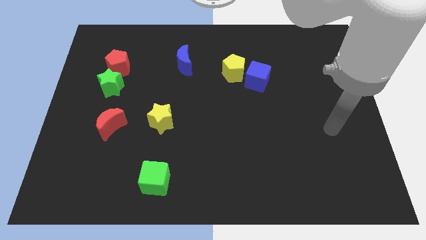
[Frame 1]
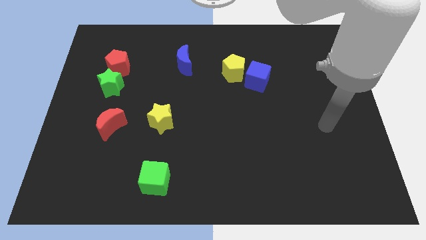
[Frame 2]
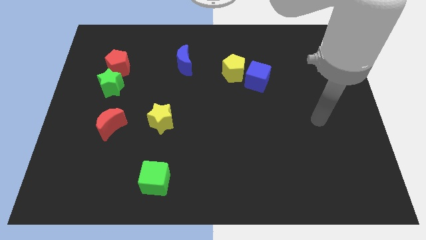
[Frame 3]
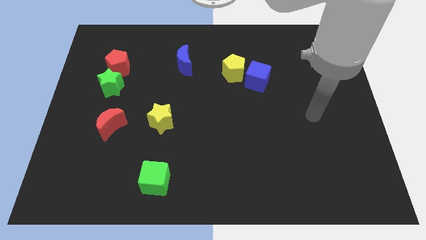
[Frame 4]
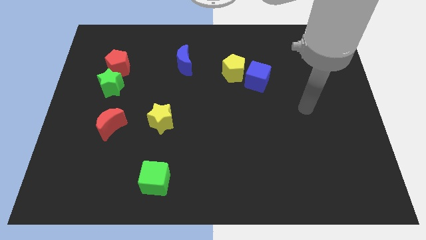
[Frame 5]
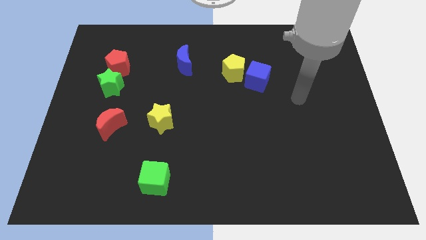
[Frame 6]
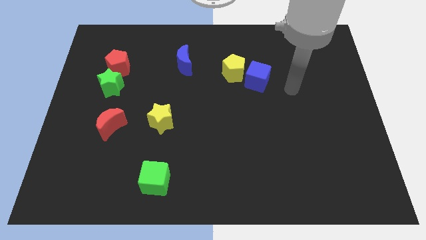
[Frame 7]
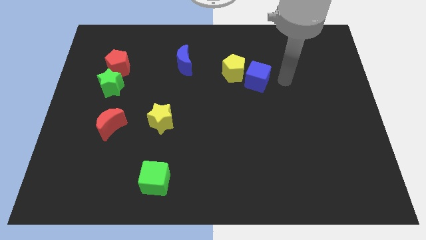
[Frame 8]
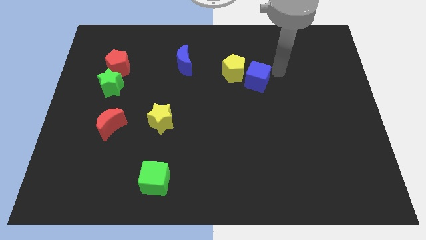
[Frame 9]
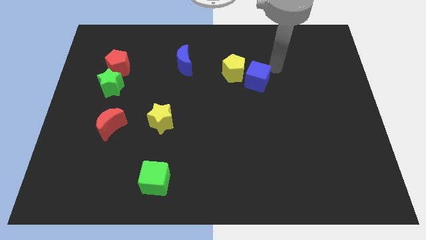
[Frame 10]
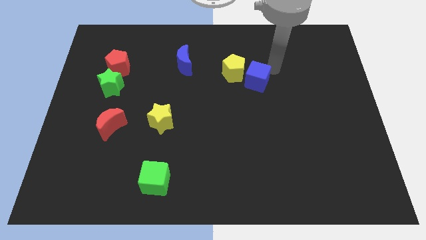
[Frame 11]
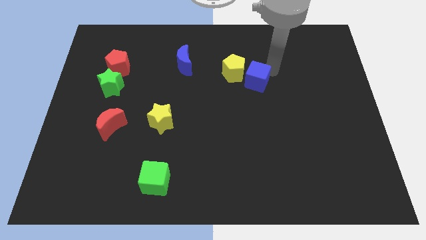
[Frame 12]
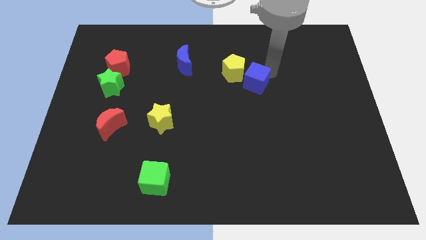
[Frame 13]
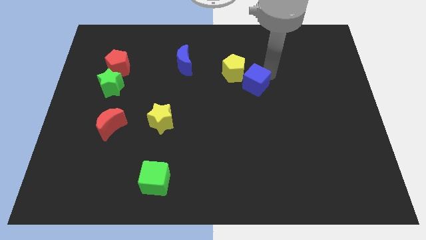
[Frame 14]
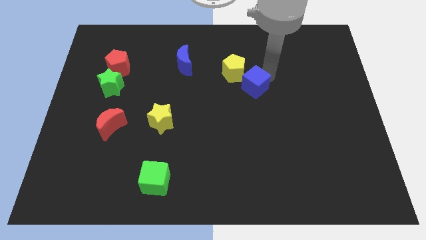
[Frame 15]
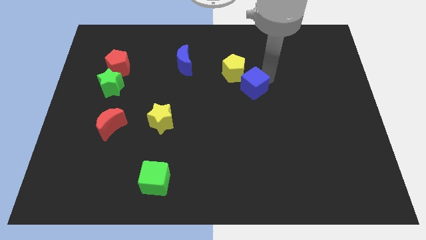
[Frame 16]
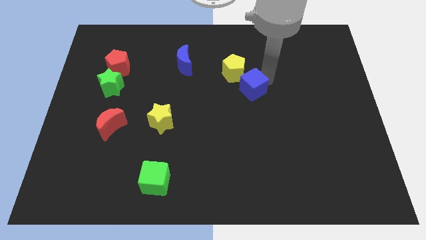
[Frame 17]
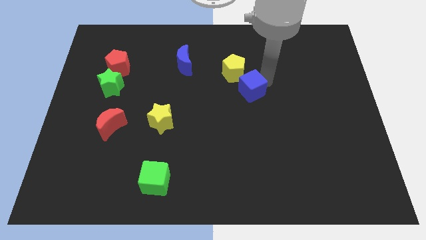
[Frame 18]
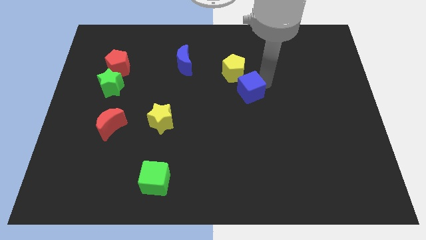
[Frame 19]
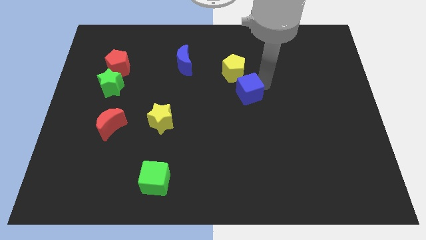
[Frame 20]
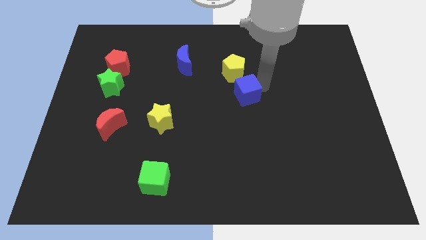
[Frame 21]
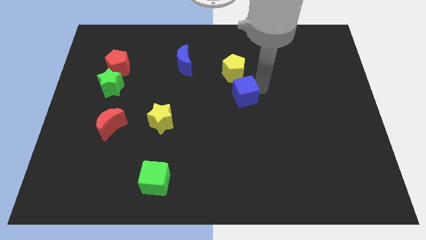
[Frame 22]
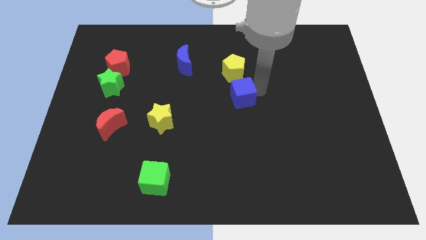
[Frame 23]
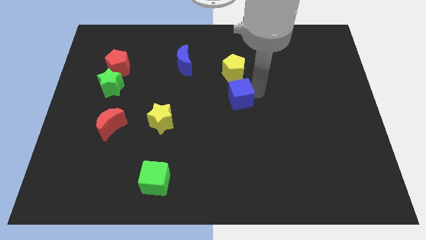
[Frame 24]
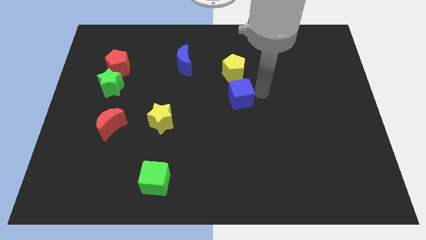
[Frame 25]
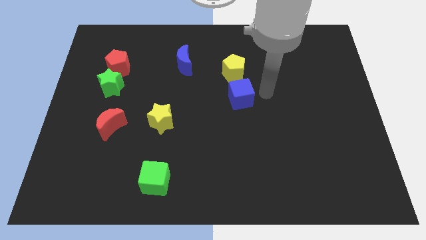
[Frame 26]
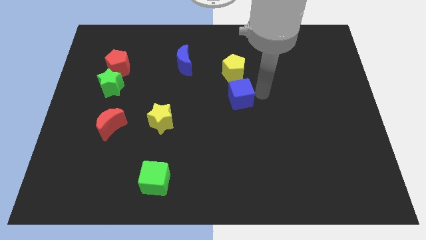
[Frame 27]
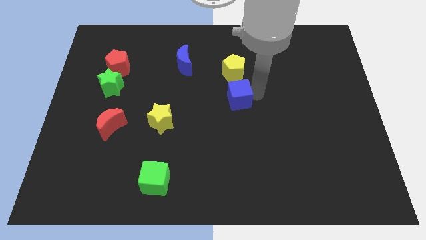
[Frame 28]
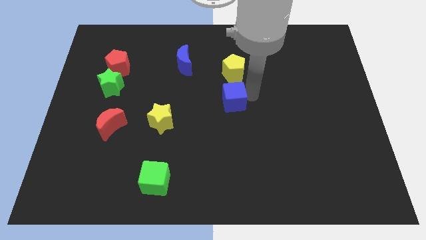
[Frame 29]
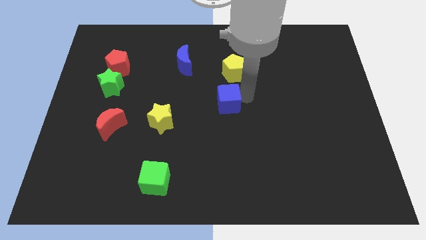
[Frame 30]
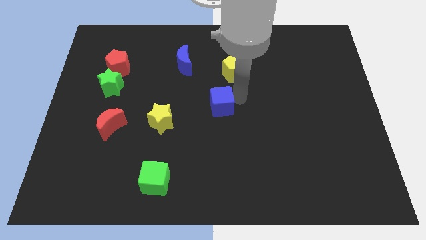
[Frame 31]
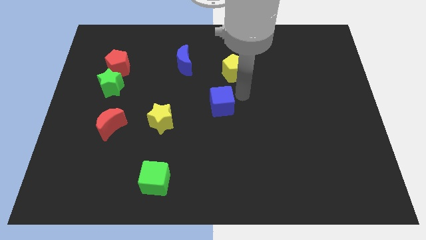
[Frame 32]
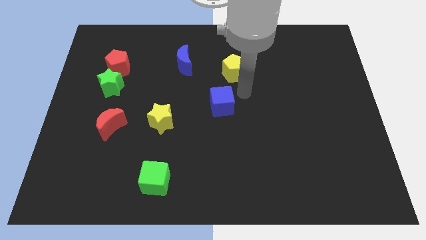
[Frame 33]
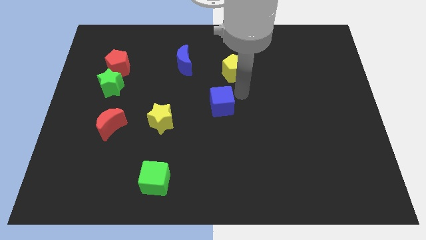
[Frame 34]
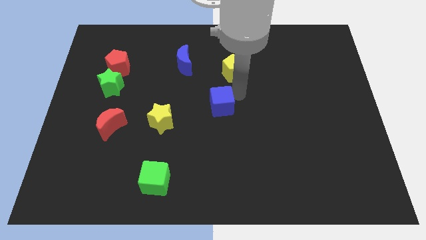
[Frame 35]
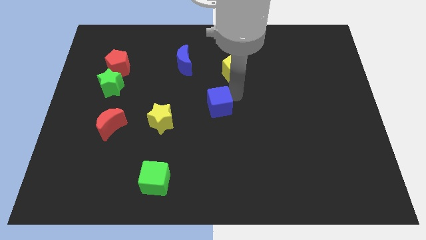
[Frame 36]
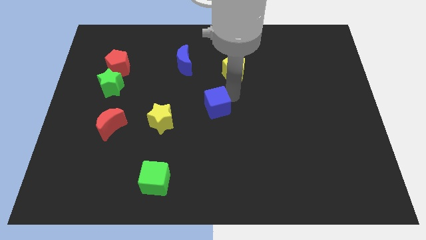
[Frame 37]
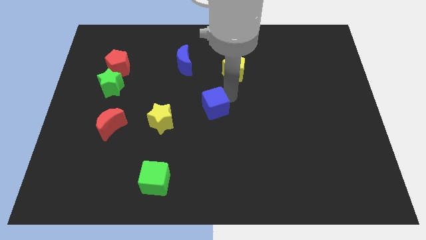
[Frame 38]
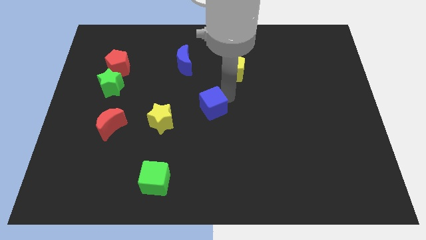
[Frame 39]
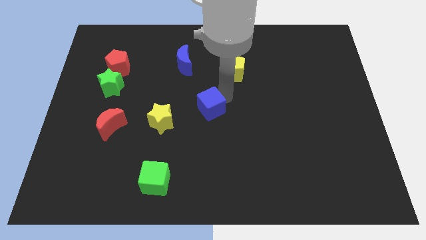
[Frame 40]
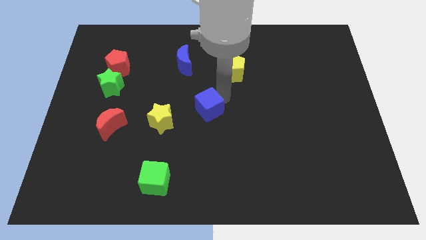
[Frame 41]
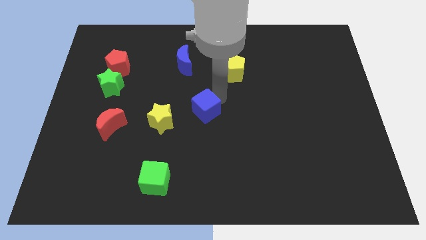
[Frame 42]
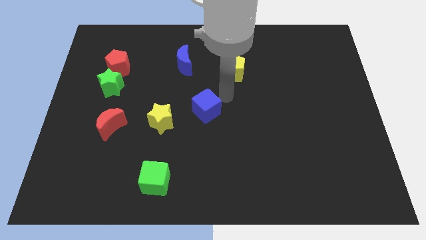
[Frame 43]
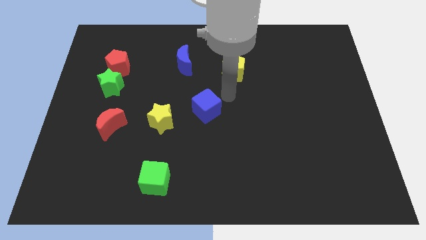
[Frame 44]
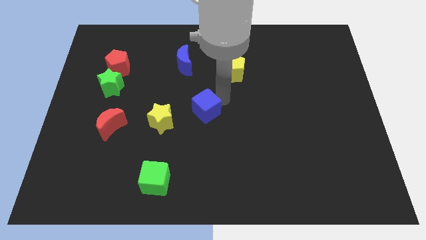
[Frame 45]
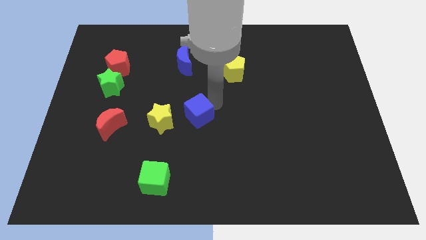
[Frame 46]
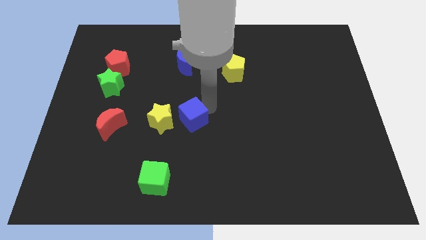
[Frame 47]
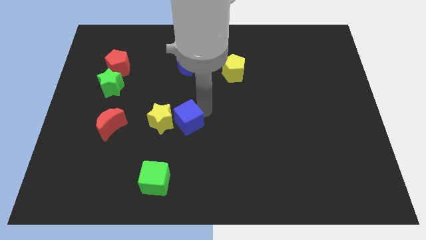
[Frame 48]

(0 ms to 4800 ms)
slide the blue cube close to the yellow star

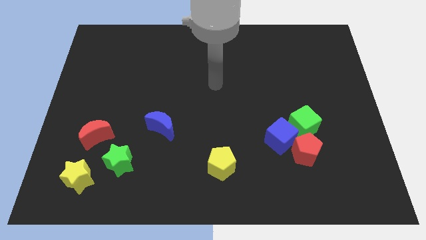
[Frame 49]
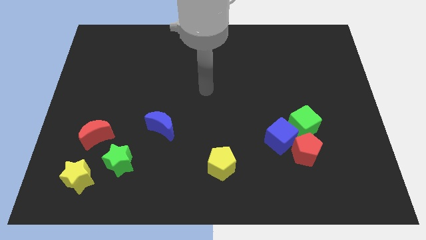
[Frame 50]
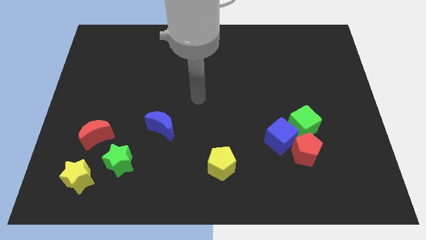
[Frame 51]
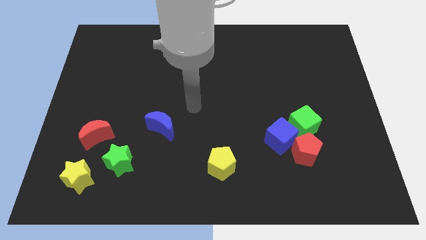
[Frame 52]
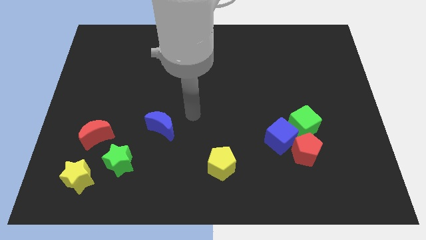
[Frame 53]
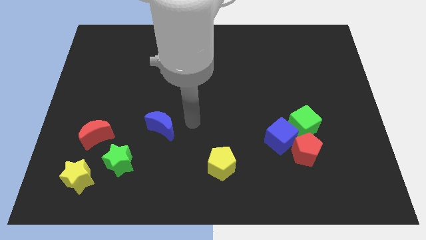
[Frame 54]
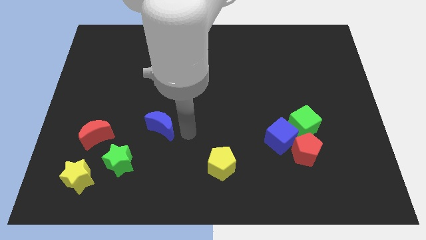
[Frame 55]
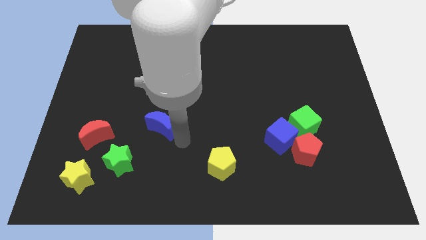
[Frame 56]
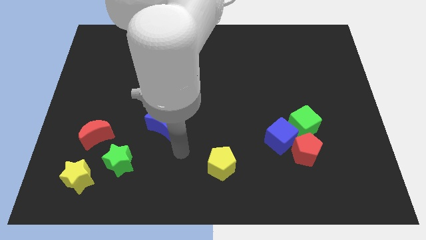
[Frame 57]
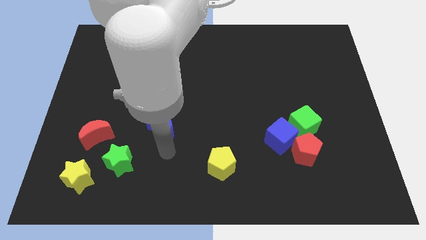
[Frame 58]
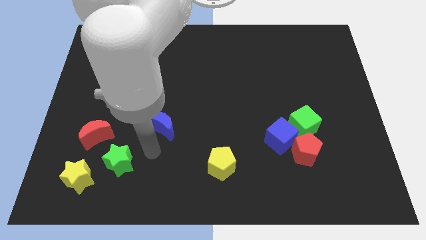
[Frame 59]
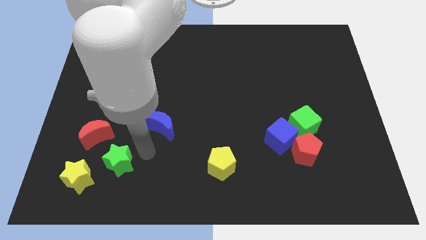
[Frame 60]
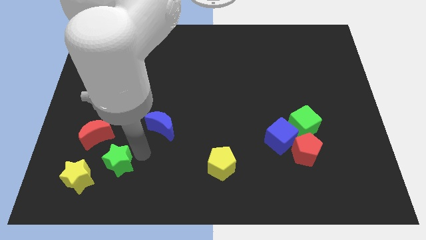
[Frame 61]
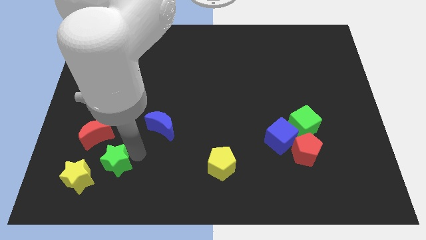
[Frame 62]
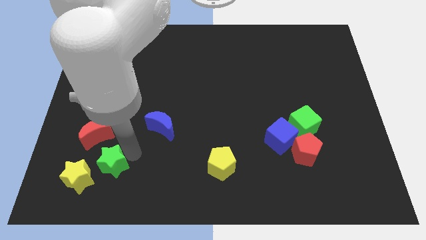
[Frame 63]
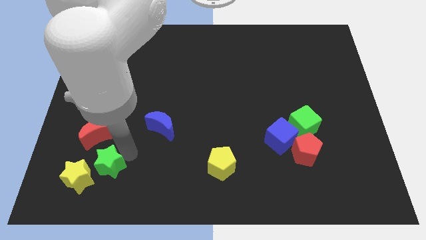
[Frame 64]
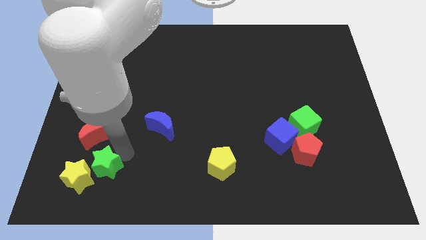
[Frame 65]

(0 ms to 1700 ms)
push the green star to the yellow star

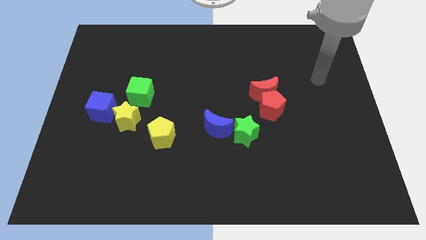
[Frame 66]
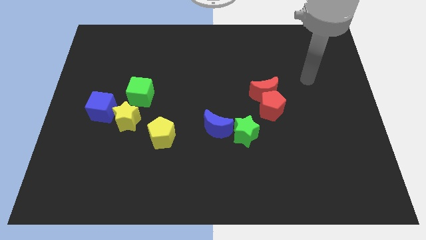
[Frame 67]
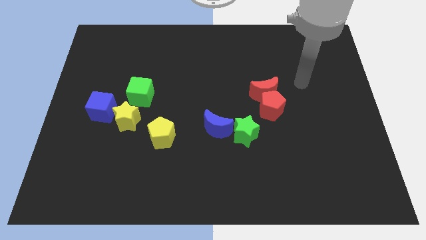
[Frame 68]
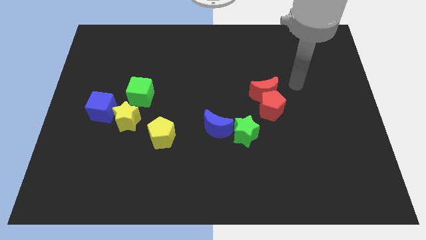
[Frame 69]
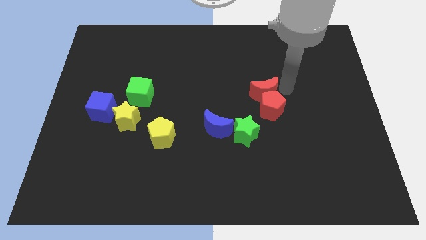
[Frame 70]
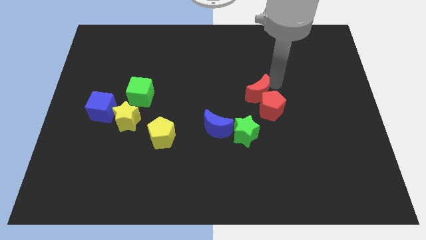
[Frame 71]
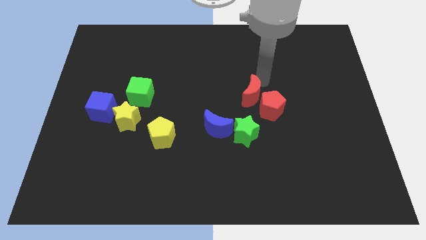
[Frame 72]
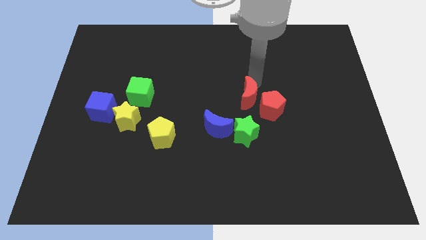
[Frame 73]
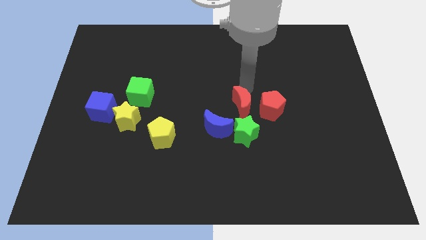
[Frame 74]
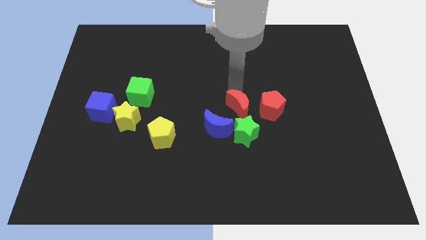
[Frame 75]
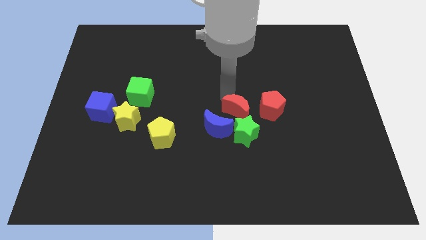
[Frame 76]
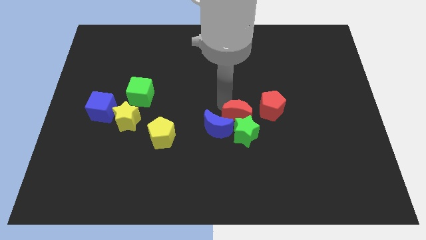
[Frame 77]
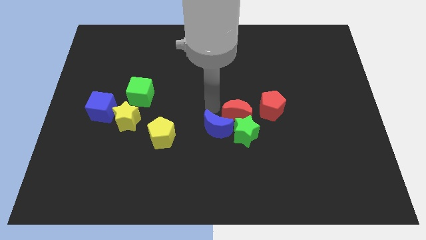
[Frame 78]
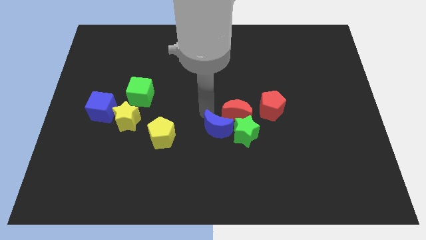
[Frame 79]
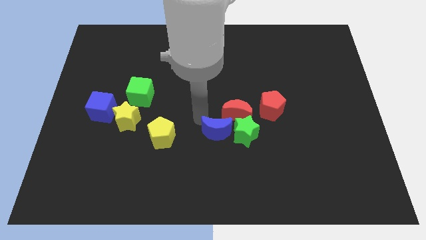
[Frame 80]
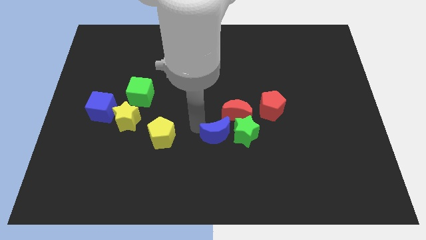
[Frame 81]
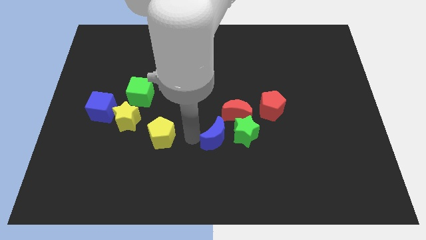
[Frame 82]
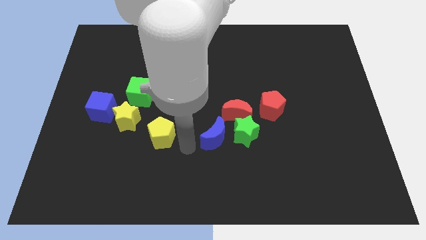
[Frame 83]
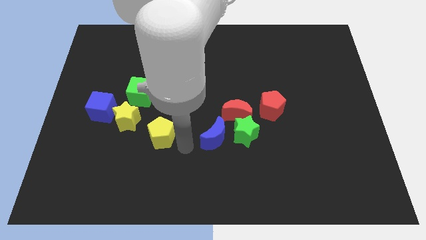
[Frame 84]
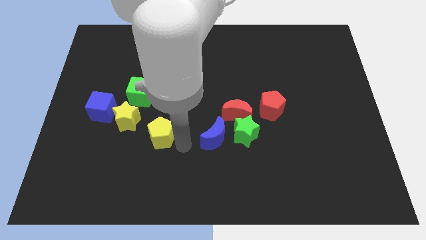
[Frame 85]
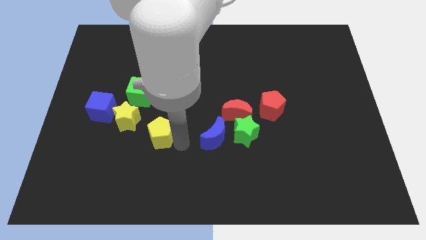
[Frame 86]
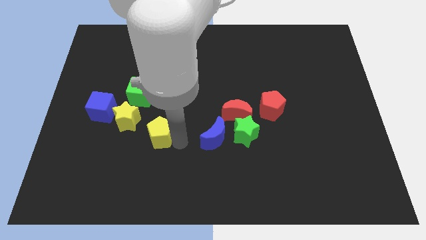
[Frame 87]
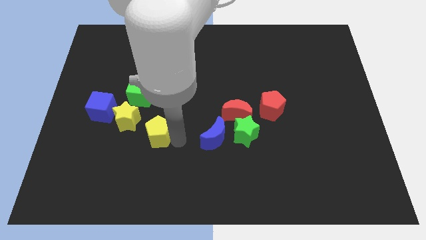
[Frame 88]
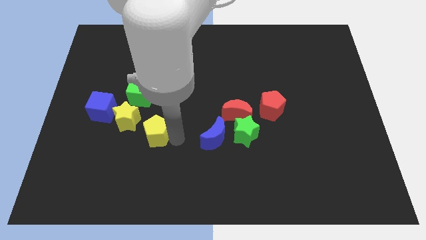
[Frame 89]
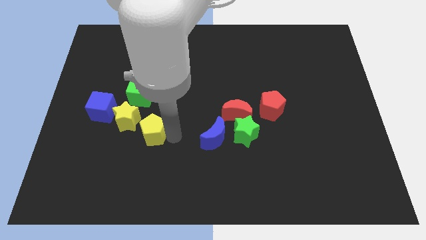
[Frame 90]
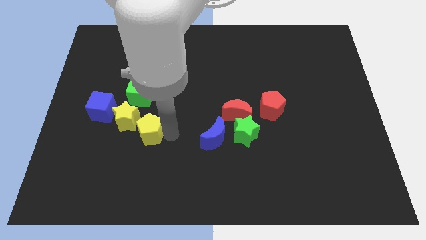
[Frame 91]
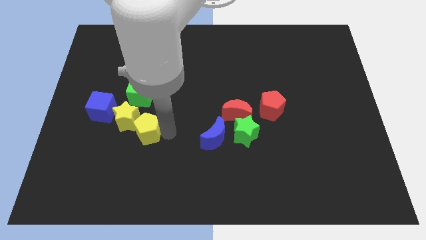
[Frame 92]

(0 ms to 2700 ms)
move the yellow pentagon close to the yellow star
